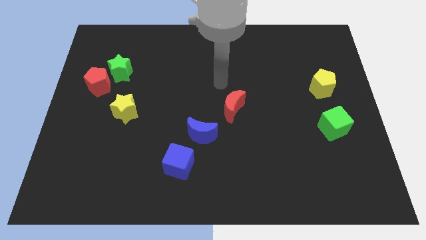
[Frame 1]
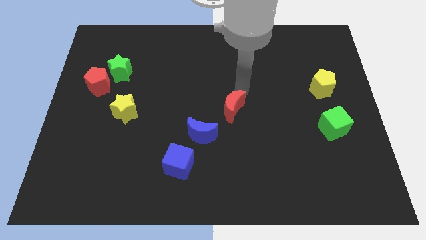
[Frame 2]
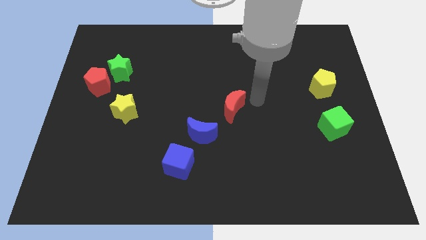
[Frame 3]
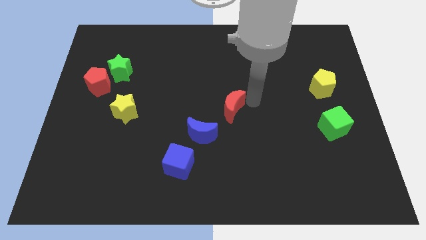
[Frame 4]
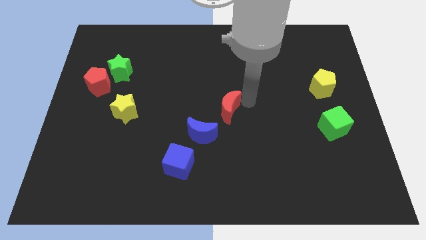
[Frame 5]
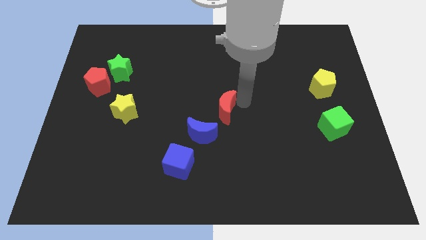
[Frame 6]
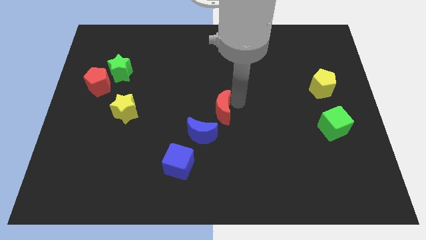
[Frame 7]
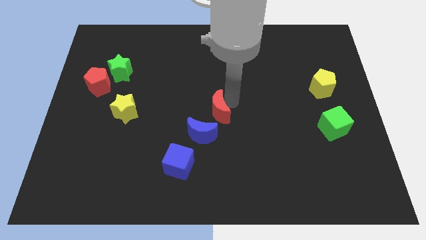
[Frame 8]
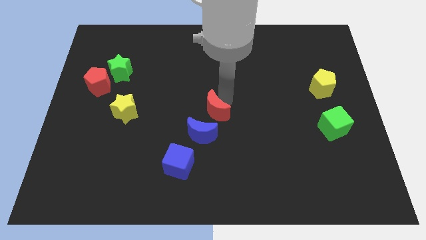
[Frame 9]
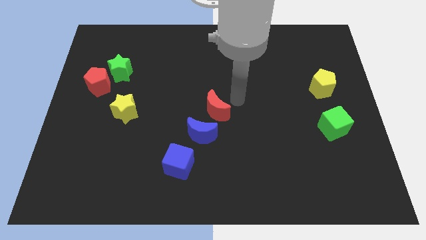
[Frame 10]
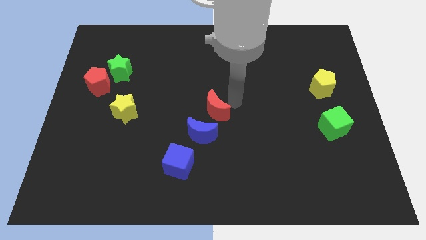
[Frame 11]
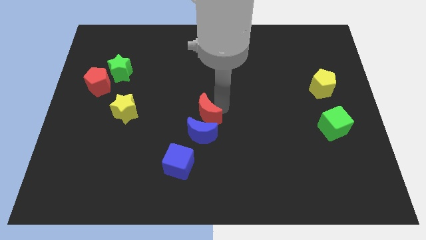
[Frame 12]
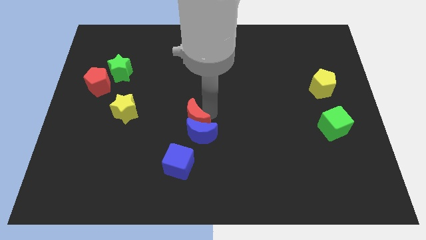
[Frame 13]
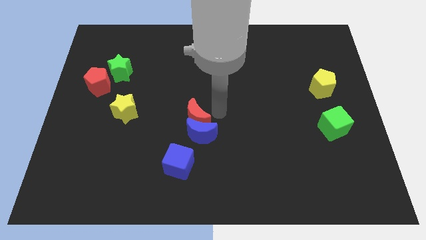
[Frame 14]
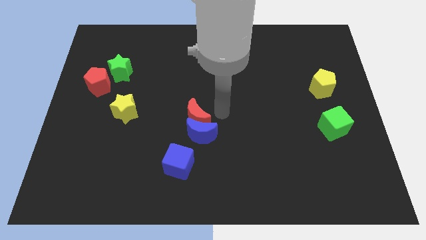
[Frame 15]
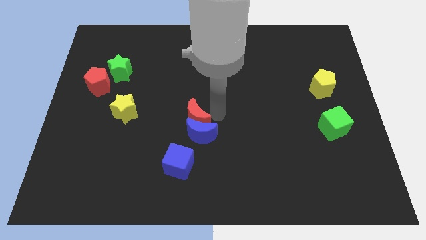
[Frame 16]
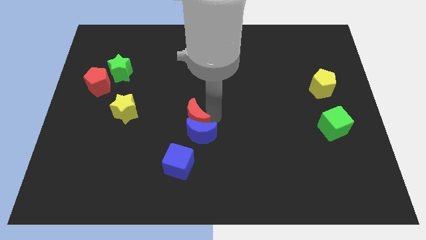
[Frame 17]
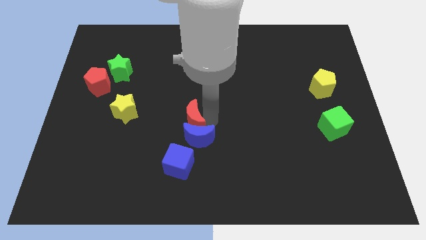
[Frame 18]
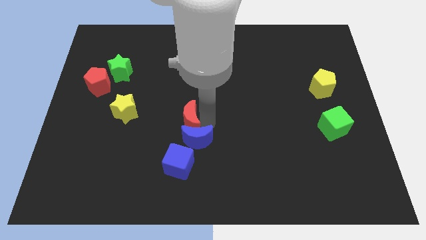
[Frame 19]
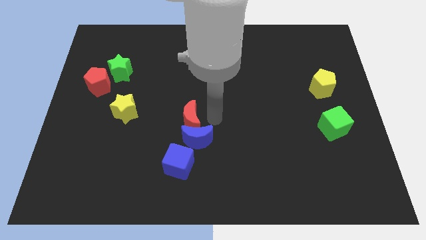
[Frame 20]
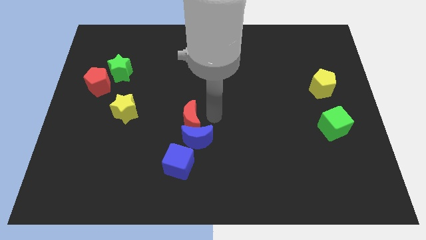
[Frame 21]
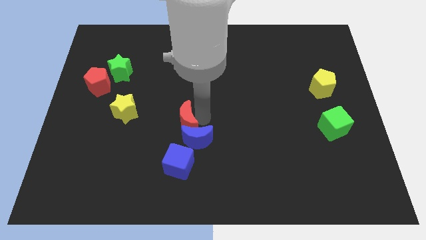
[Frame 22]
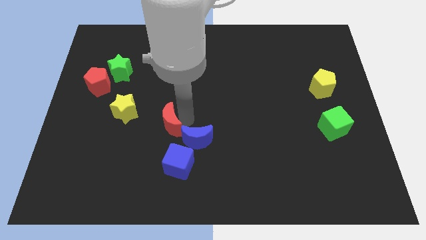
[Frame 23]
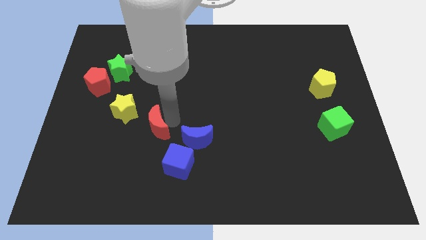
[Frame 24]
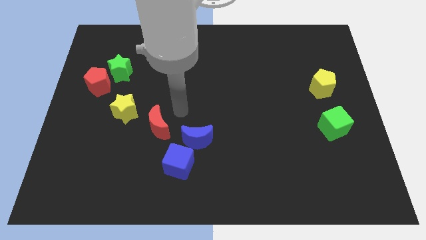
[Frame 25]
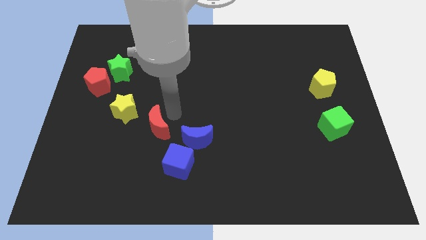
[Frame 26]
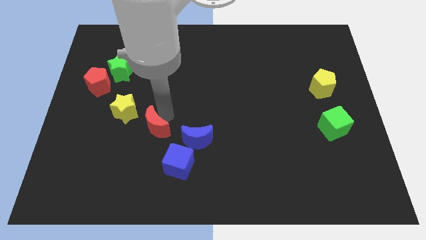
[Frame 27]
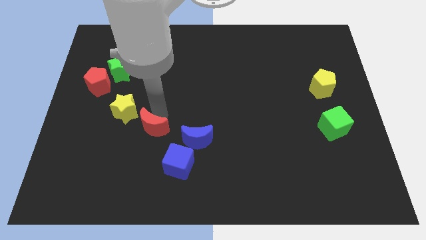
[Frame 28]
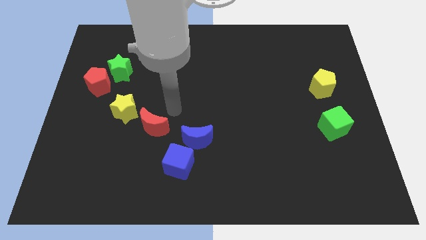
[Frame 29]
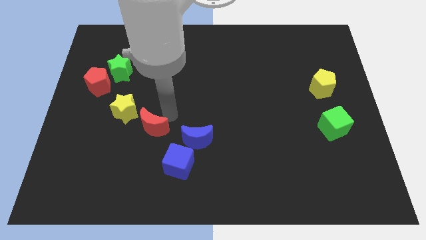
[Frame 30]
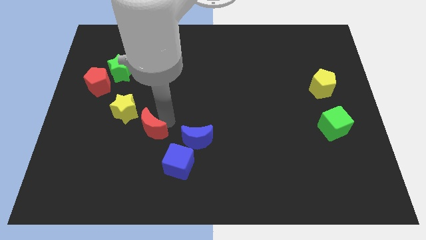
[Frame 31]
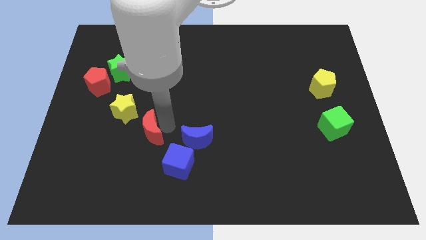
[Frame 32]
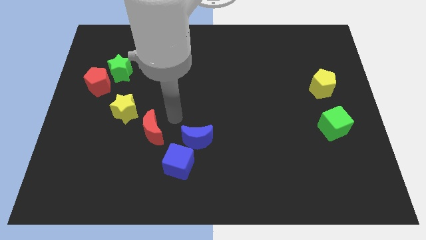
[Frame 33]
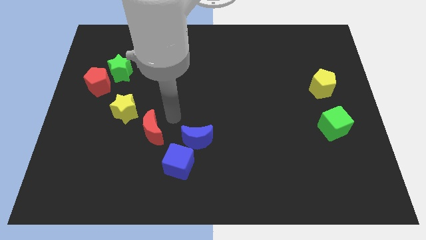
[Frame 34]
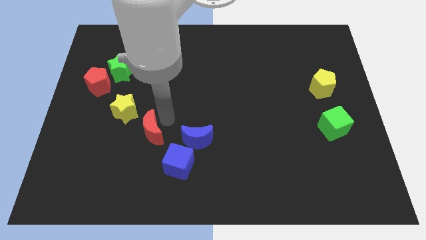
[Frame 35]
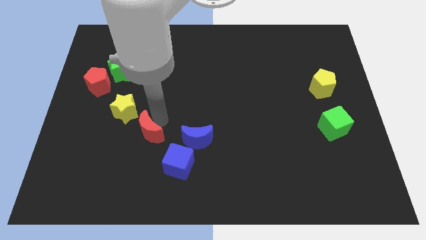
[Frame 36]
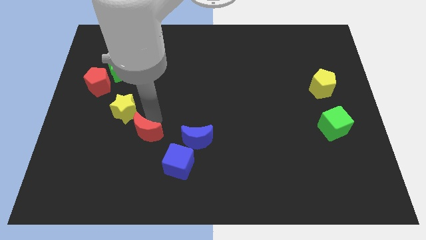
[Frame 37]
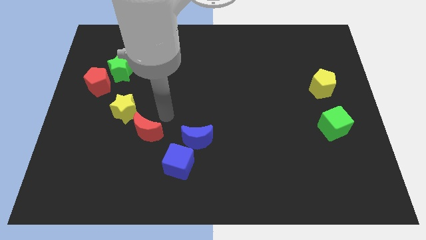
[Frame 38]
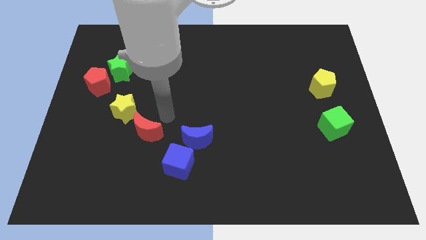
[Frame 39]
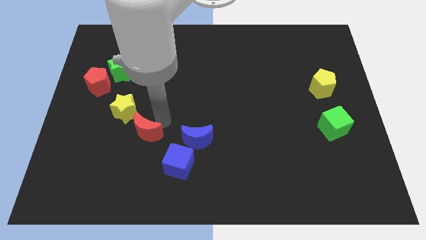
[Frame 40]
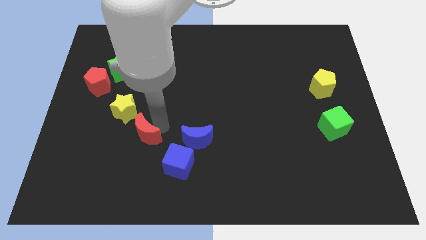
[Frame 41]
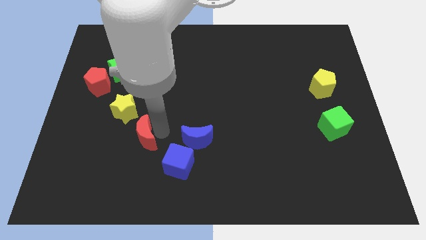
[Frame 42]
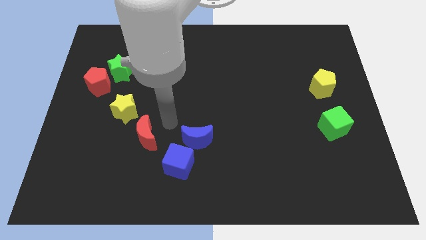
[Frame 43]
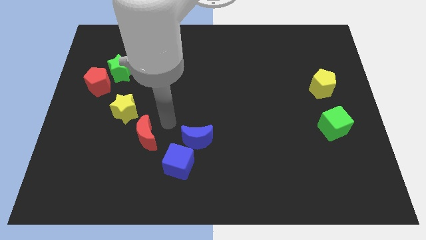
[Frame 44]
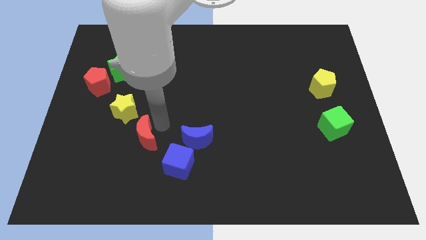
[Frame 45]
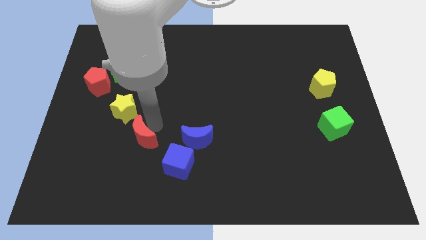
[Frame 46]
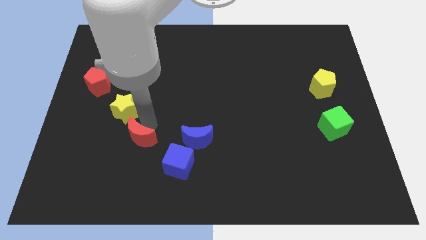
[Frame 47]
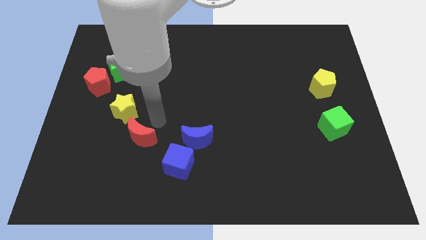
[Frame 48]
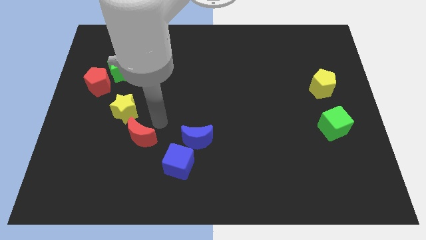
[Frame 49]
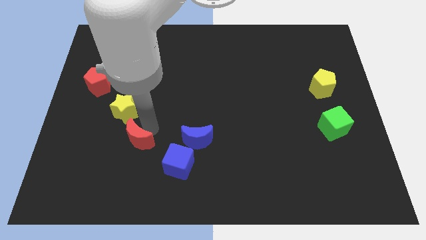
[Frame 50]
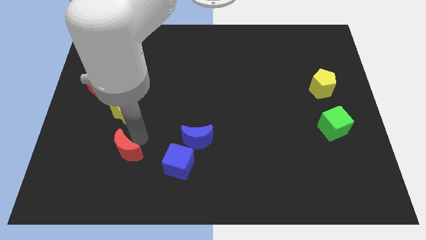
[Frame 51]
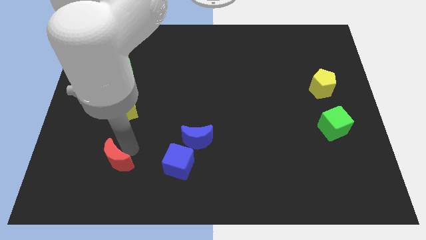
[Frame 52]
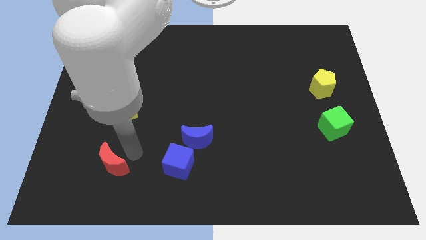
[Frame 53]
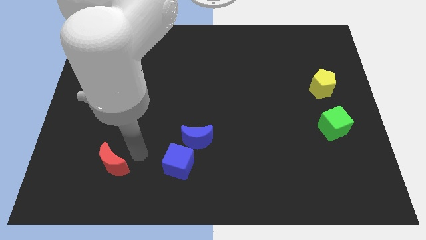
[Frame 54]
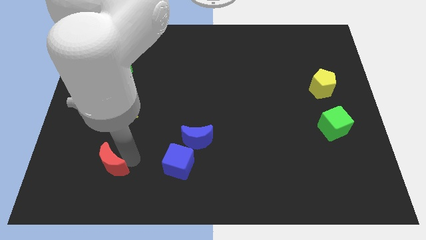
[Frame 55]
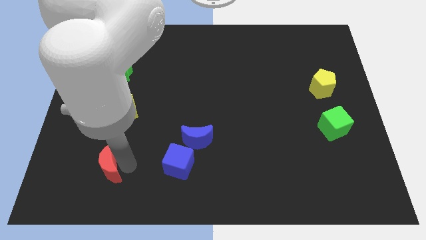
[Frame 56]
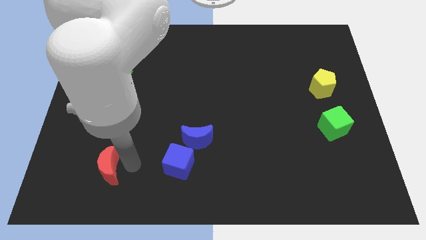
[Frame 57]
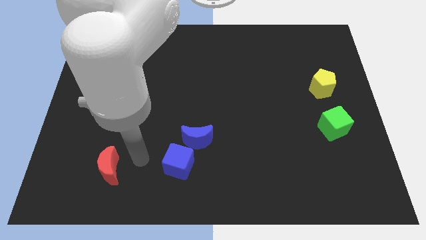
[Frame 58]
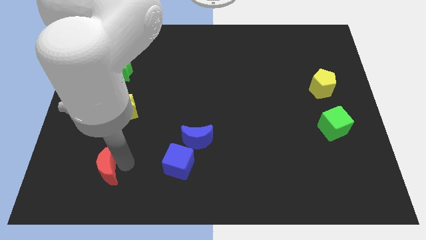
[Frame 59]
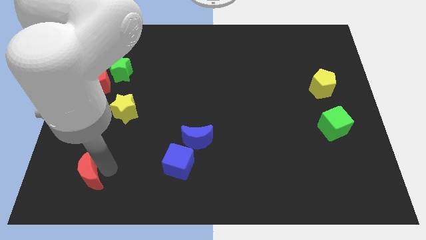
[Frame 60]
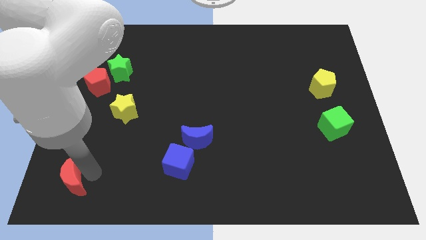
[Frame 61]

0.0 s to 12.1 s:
push the red moon to the bottom left of the board

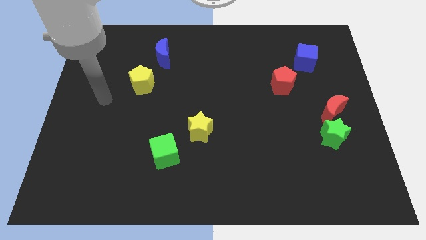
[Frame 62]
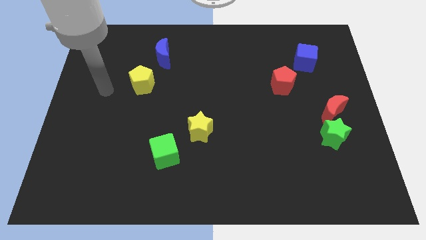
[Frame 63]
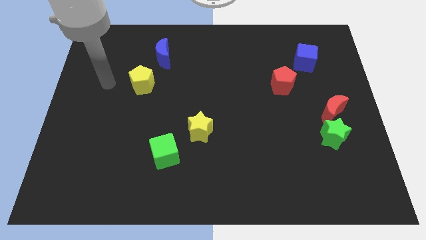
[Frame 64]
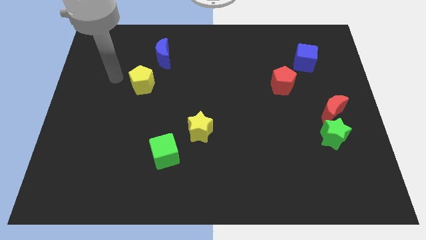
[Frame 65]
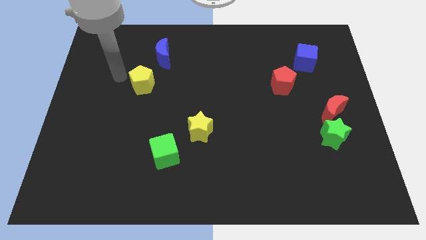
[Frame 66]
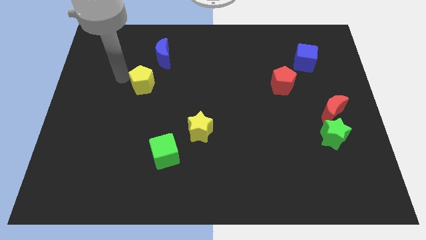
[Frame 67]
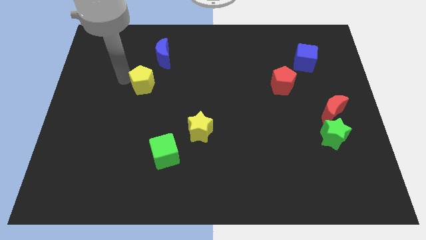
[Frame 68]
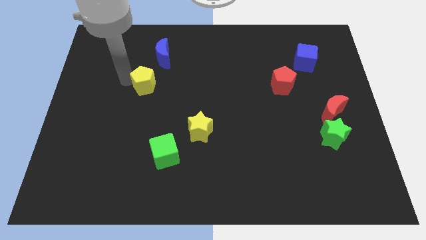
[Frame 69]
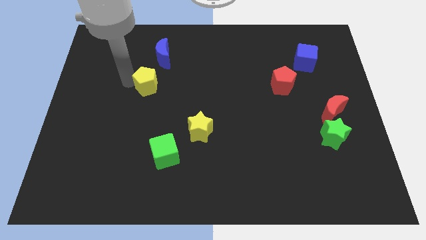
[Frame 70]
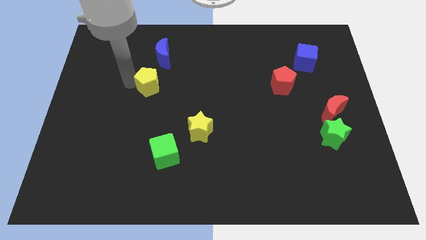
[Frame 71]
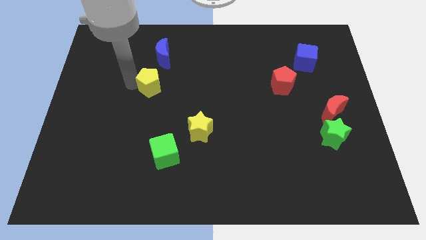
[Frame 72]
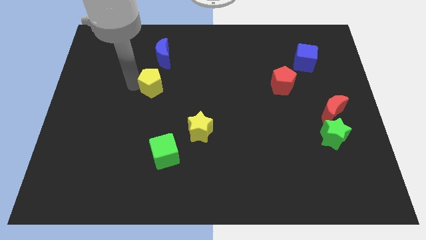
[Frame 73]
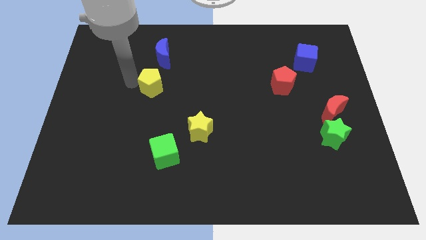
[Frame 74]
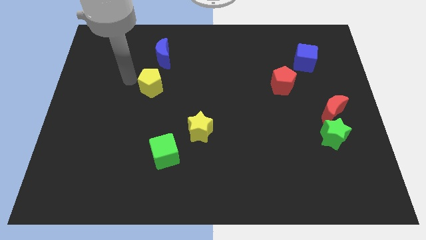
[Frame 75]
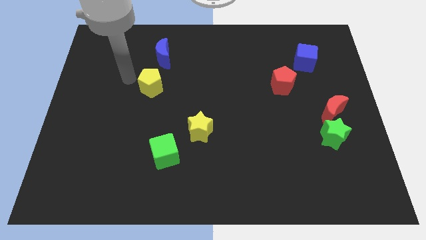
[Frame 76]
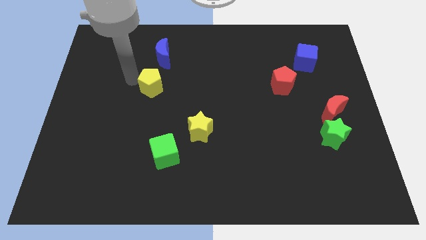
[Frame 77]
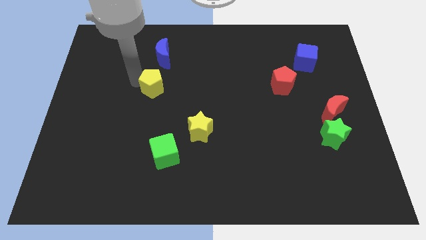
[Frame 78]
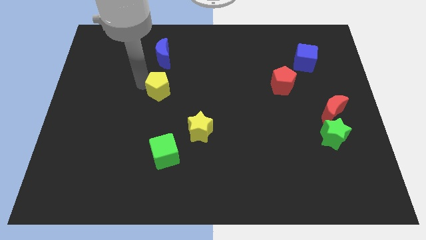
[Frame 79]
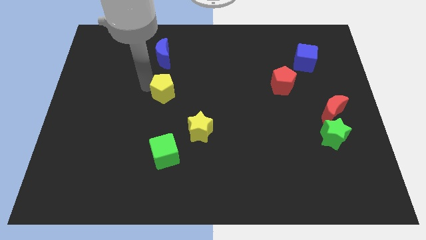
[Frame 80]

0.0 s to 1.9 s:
put the yellow pentagon to the middle of the board
